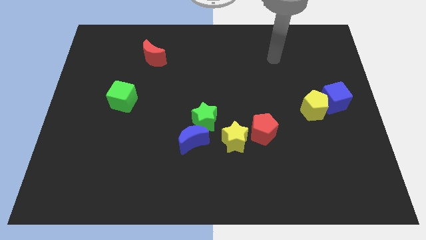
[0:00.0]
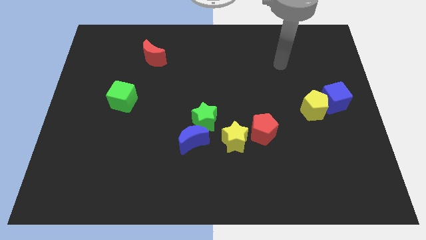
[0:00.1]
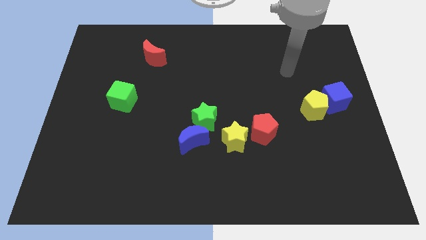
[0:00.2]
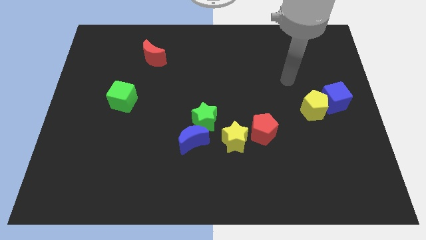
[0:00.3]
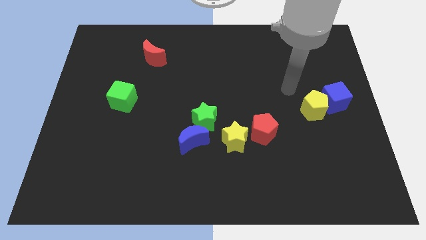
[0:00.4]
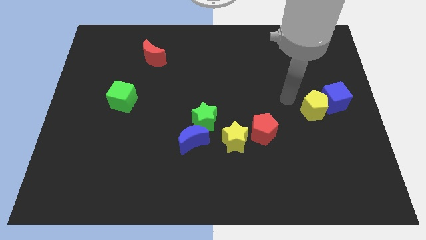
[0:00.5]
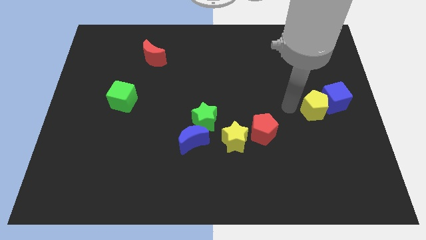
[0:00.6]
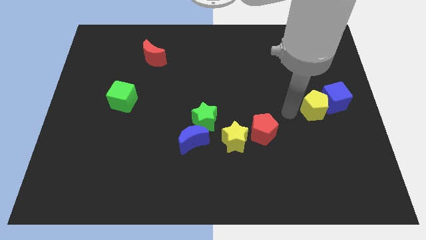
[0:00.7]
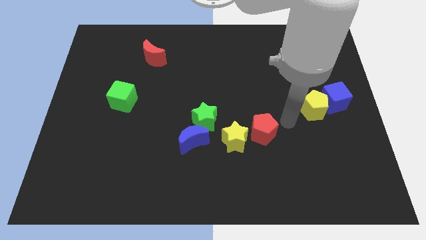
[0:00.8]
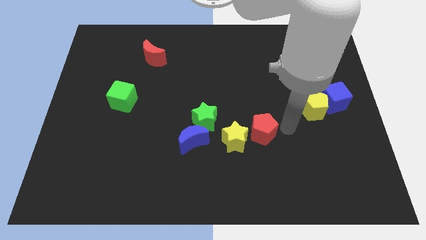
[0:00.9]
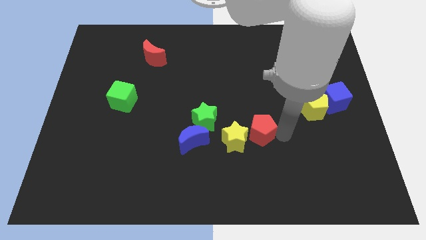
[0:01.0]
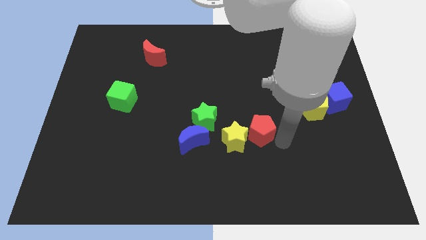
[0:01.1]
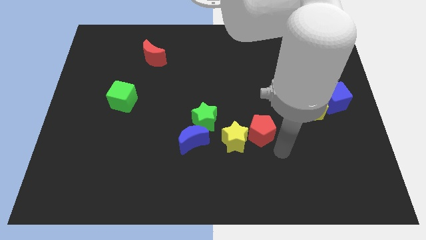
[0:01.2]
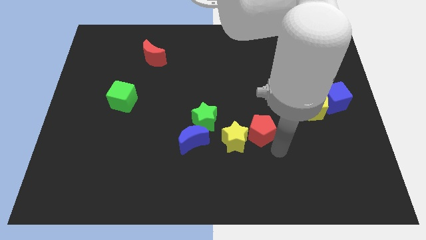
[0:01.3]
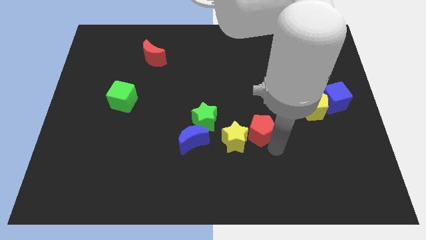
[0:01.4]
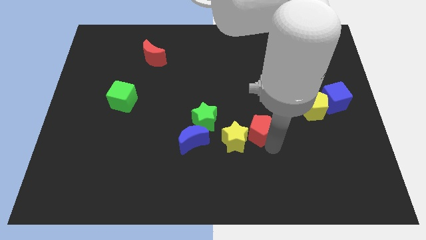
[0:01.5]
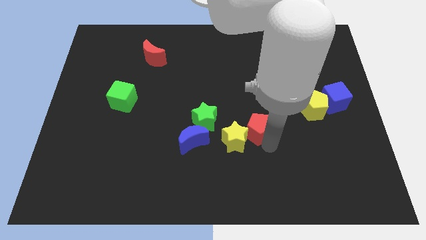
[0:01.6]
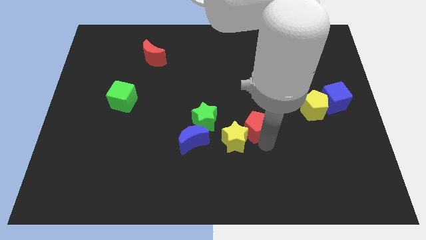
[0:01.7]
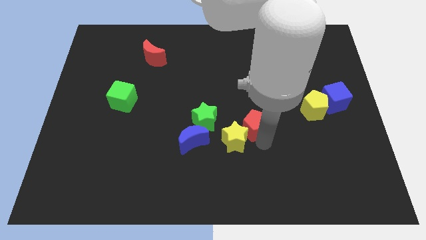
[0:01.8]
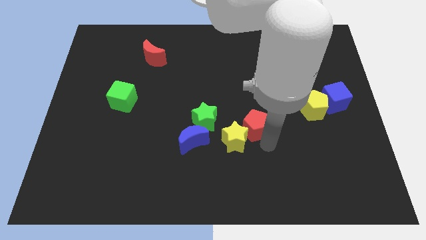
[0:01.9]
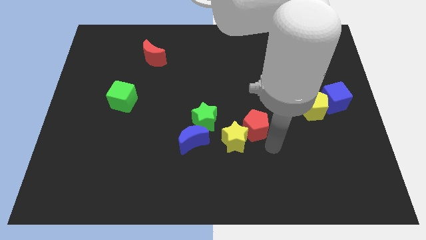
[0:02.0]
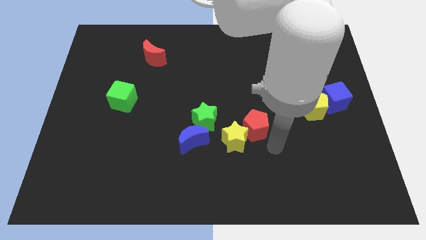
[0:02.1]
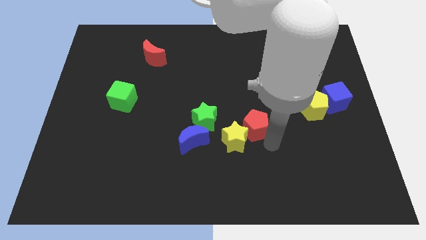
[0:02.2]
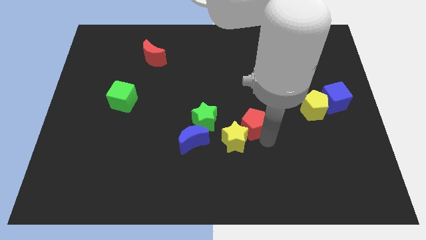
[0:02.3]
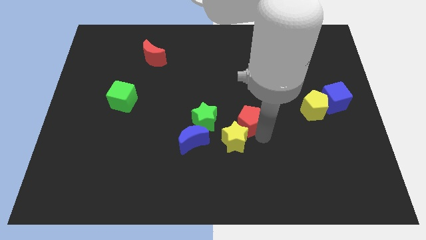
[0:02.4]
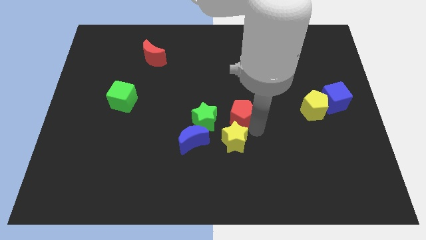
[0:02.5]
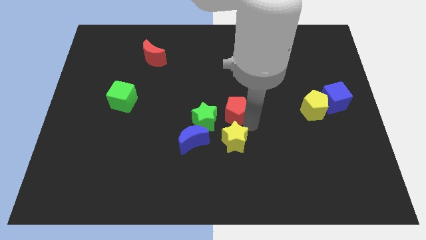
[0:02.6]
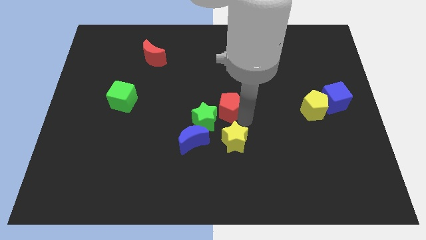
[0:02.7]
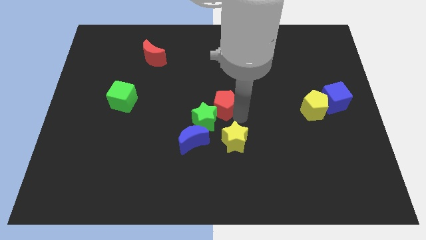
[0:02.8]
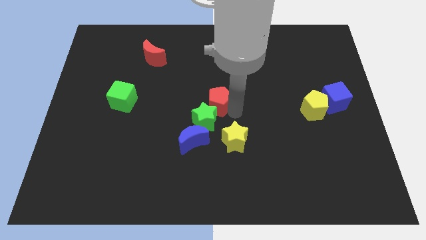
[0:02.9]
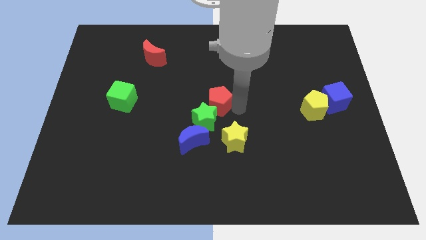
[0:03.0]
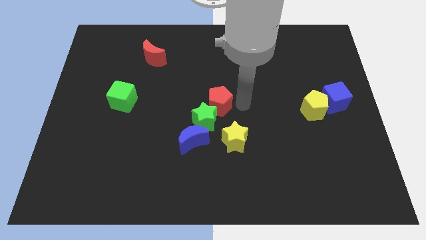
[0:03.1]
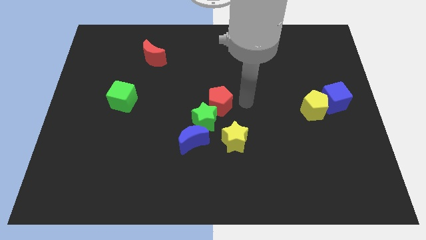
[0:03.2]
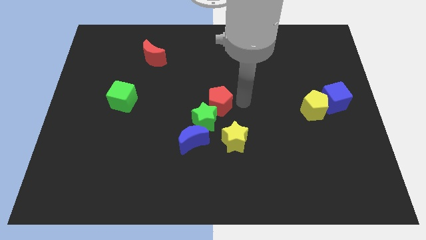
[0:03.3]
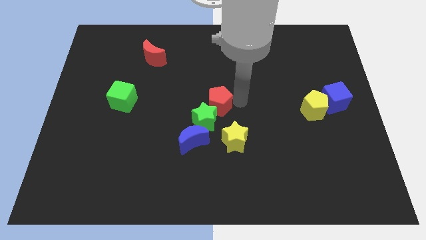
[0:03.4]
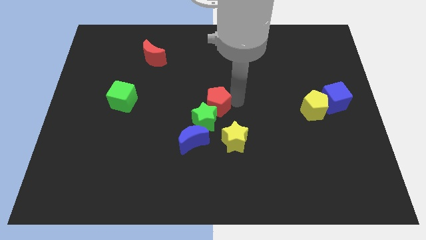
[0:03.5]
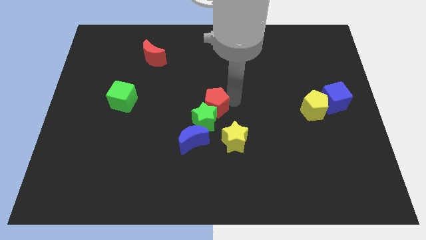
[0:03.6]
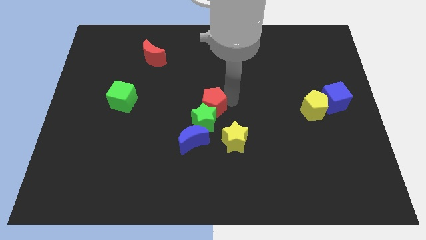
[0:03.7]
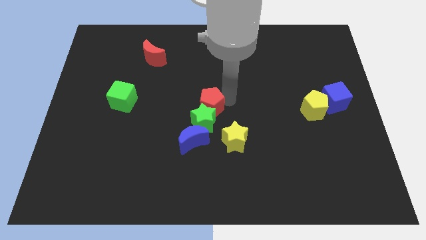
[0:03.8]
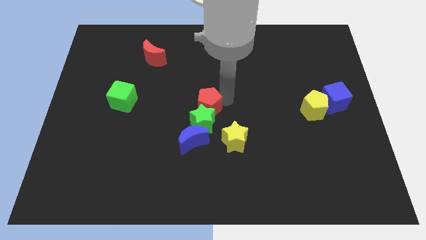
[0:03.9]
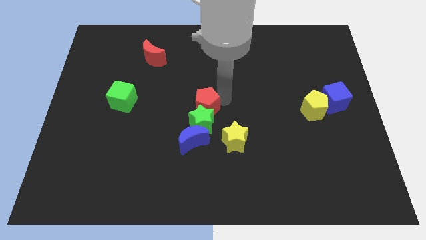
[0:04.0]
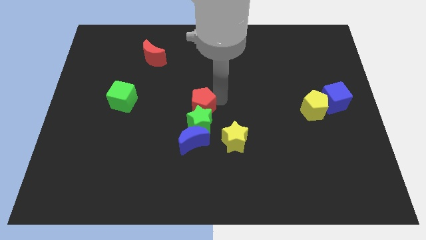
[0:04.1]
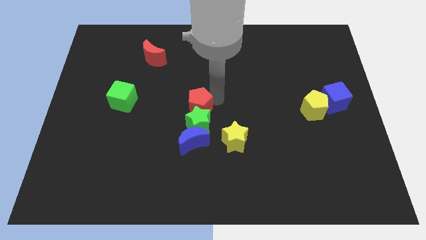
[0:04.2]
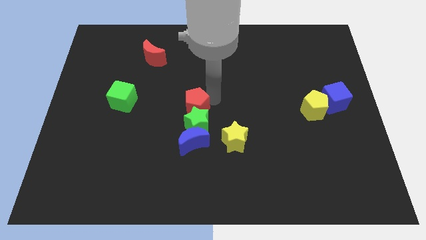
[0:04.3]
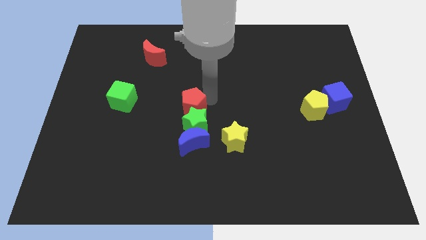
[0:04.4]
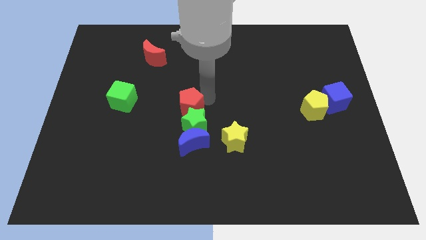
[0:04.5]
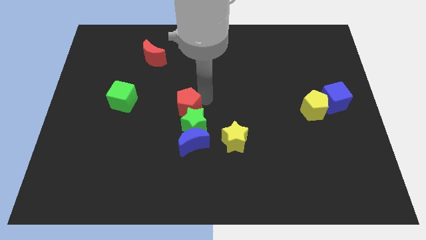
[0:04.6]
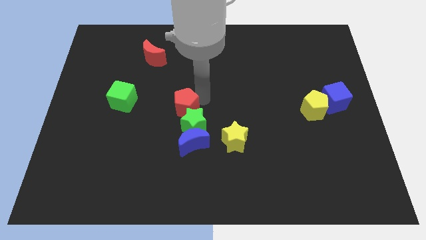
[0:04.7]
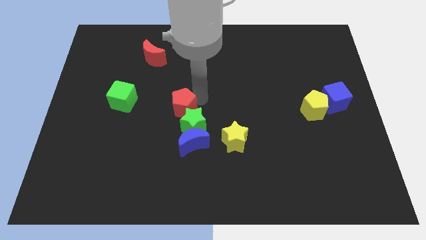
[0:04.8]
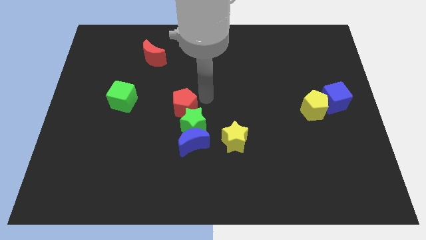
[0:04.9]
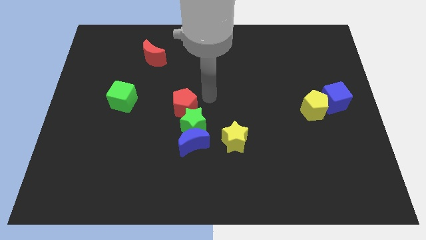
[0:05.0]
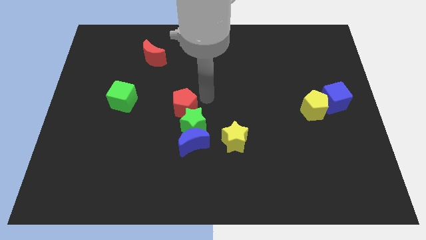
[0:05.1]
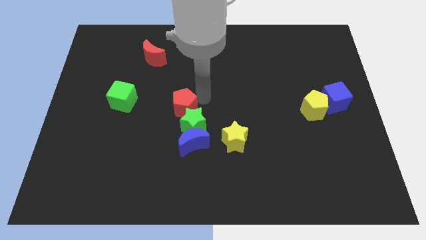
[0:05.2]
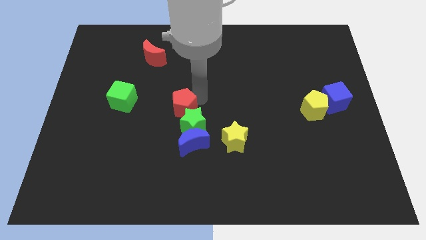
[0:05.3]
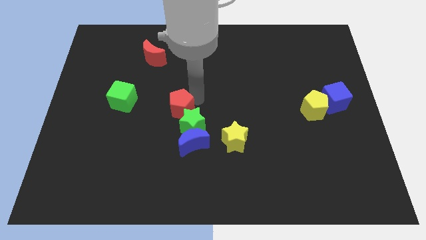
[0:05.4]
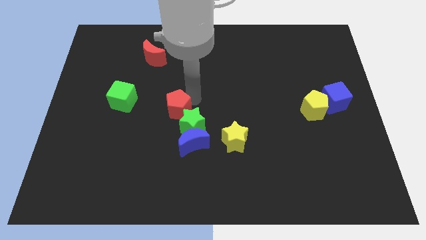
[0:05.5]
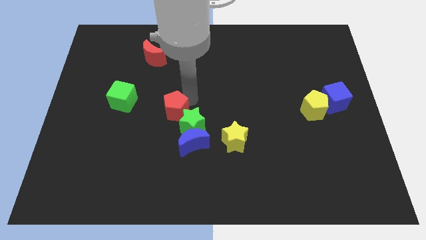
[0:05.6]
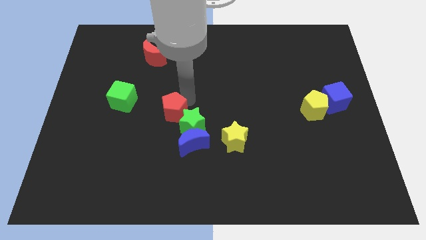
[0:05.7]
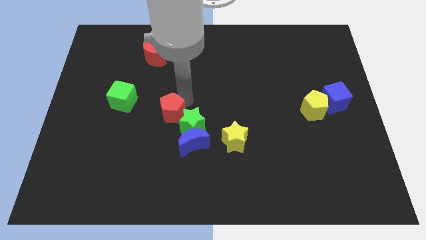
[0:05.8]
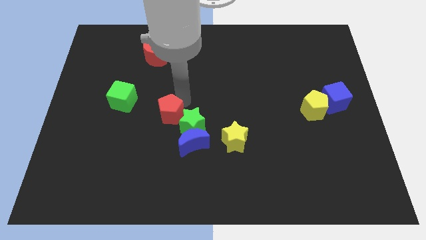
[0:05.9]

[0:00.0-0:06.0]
move the red pentagon left

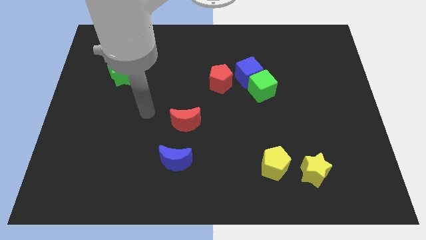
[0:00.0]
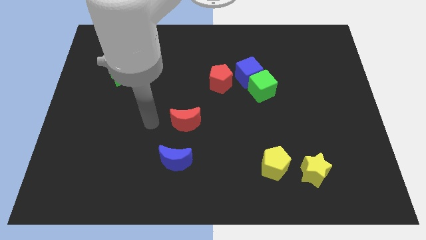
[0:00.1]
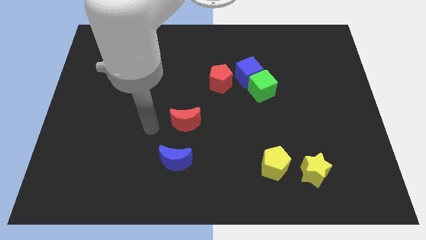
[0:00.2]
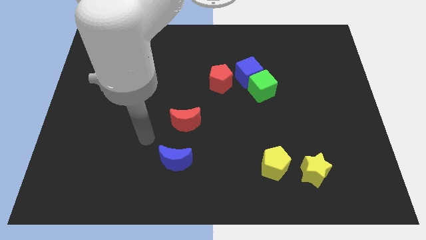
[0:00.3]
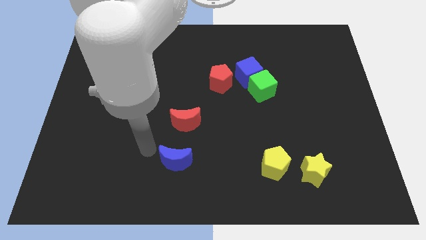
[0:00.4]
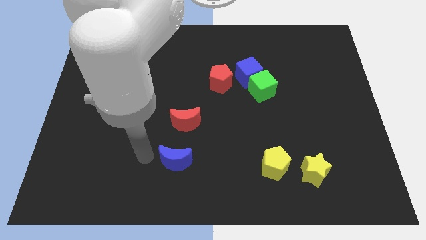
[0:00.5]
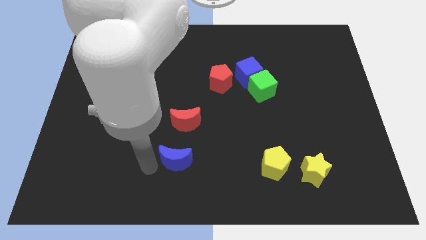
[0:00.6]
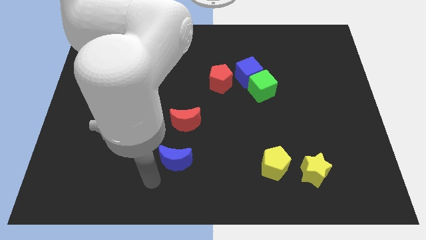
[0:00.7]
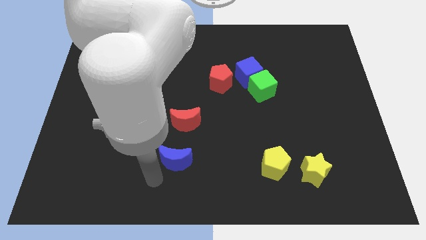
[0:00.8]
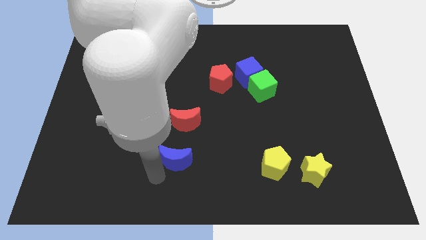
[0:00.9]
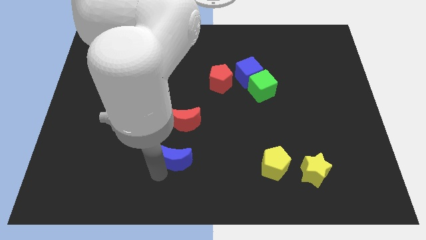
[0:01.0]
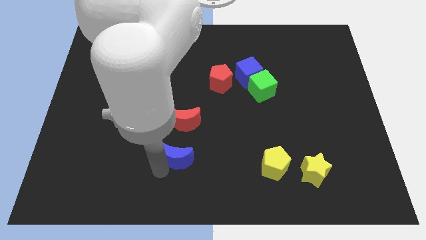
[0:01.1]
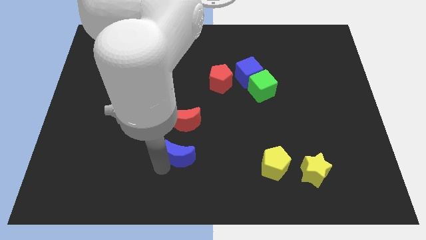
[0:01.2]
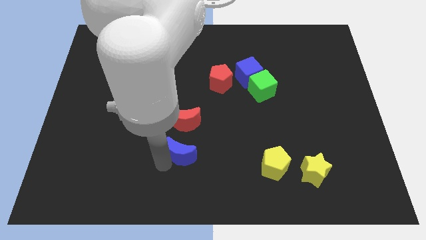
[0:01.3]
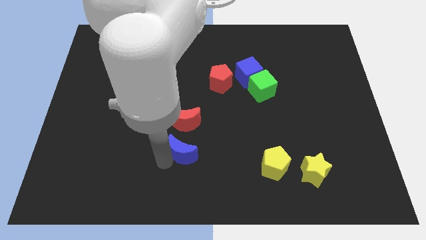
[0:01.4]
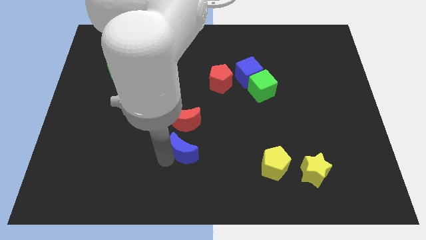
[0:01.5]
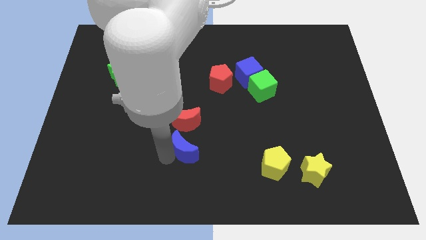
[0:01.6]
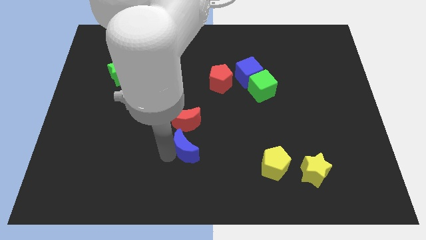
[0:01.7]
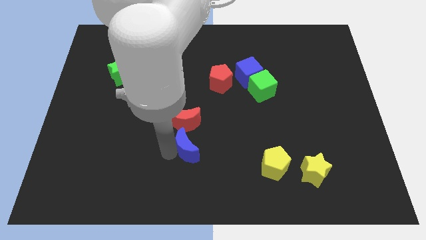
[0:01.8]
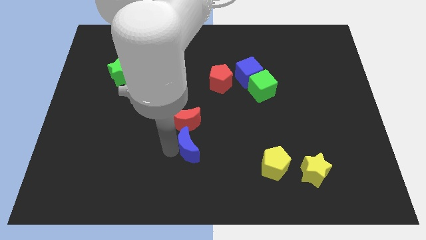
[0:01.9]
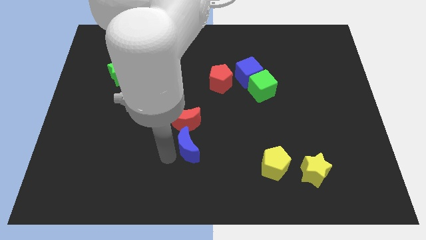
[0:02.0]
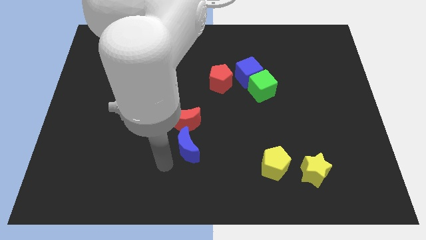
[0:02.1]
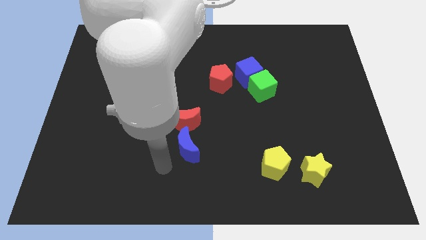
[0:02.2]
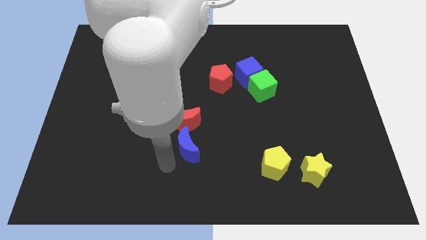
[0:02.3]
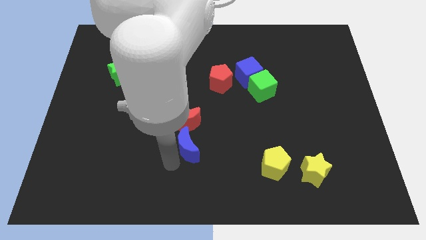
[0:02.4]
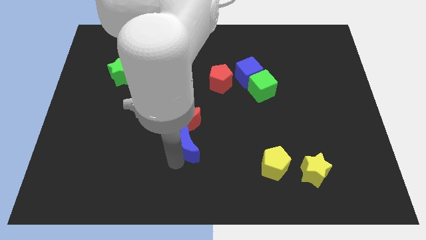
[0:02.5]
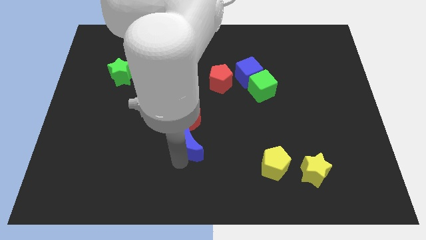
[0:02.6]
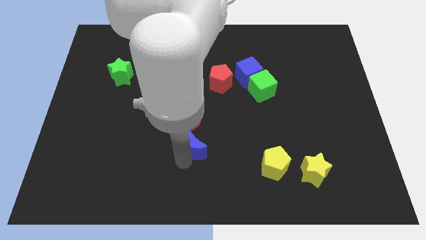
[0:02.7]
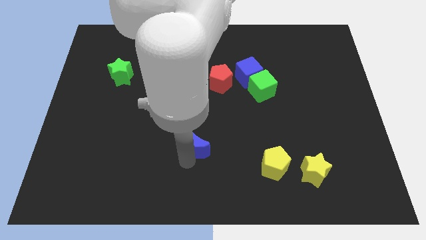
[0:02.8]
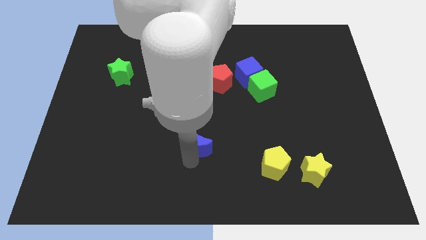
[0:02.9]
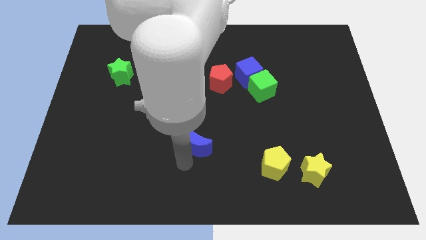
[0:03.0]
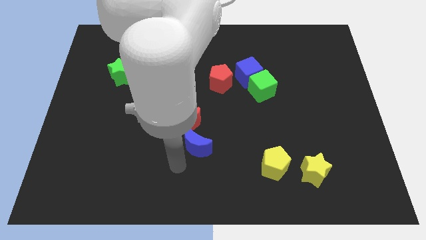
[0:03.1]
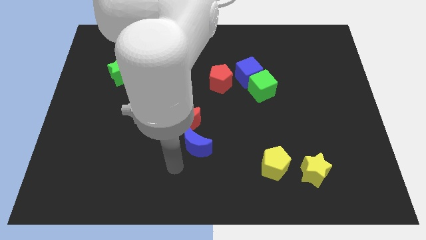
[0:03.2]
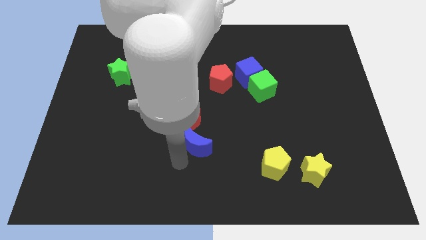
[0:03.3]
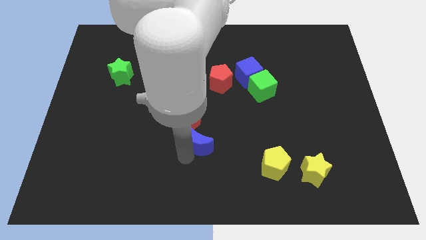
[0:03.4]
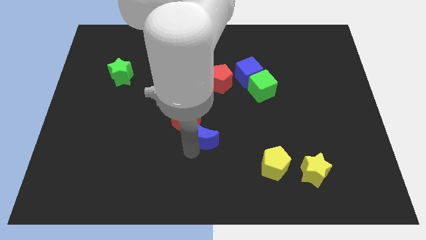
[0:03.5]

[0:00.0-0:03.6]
move the blue moon upwards and then to the right a little
